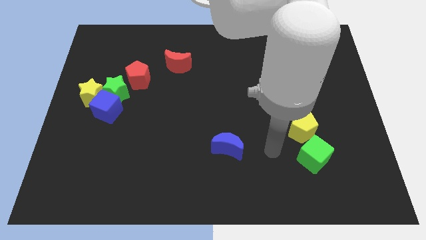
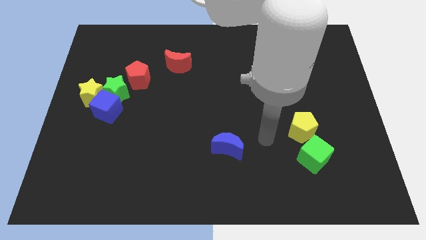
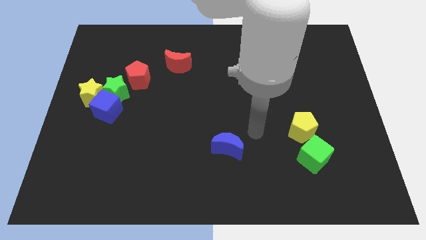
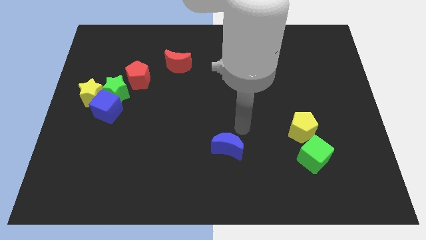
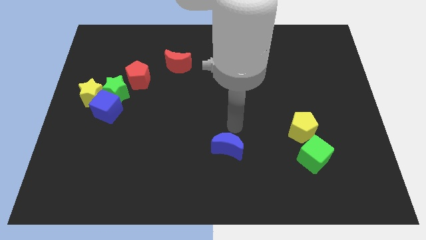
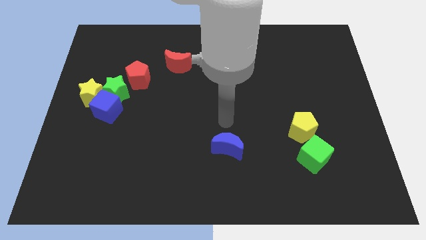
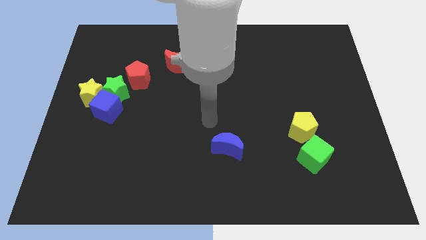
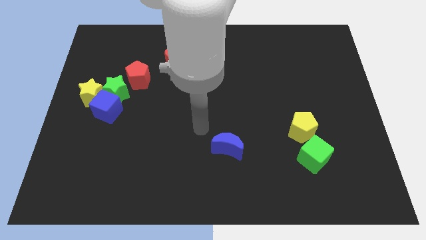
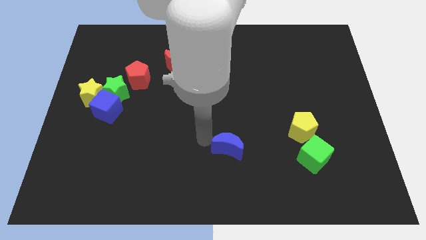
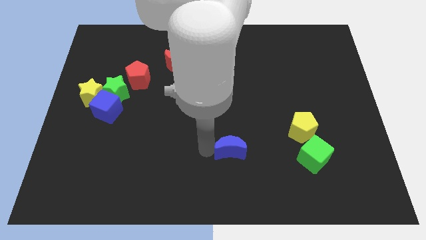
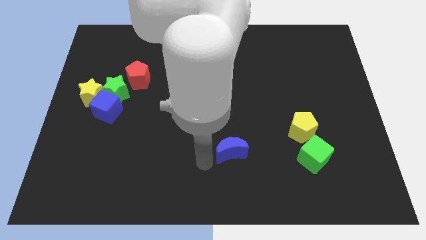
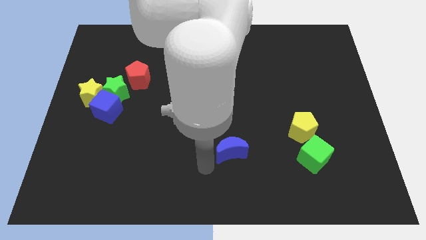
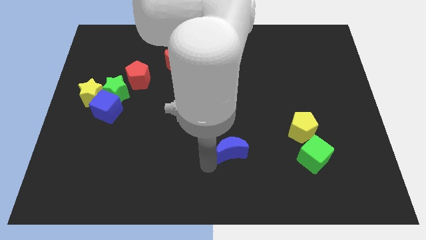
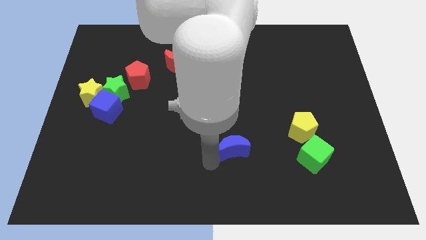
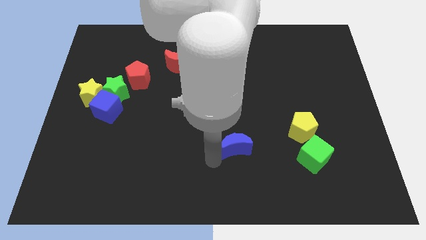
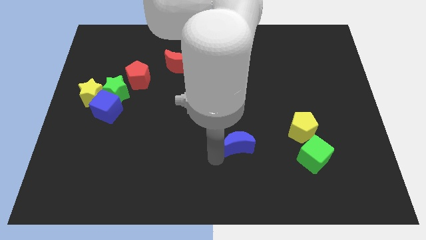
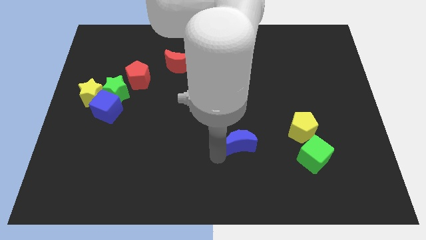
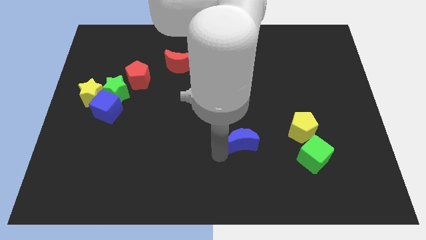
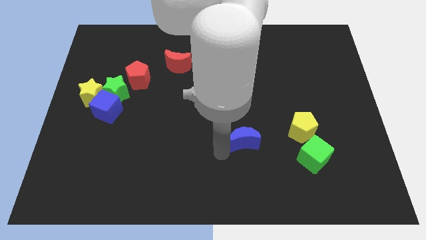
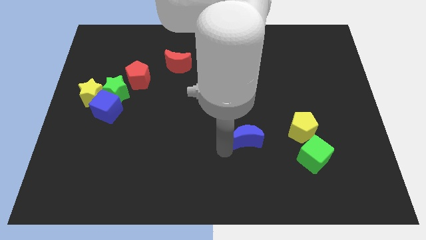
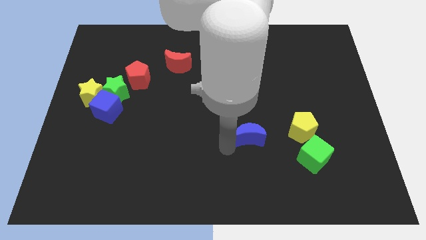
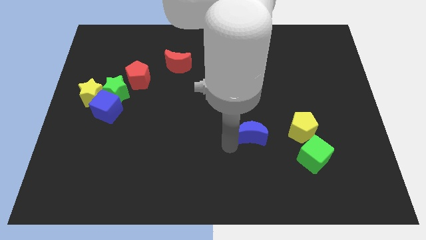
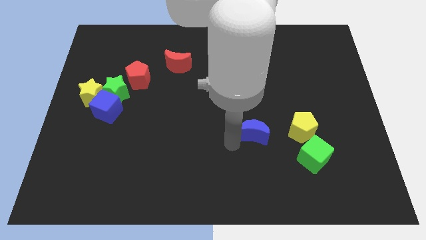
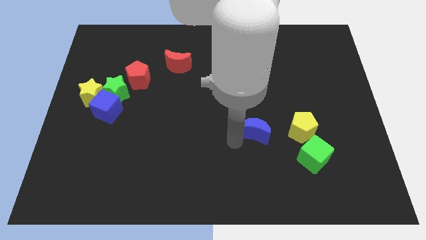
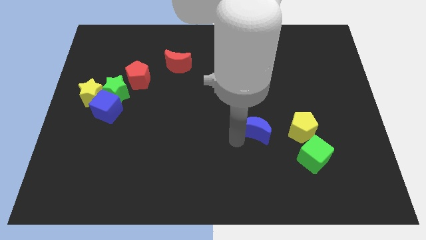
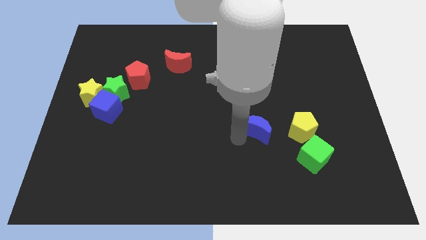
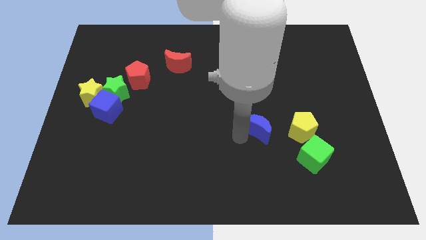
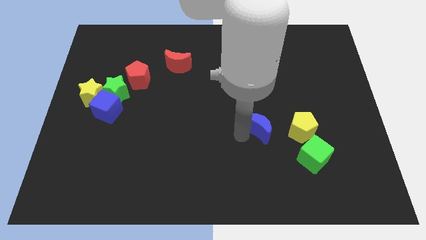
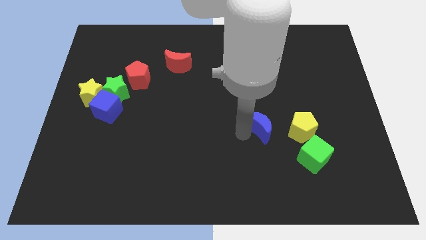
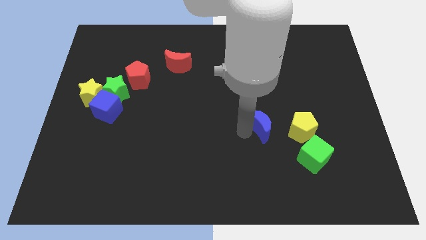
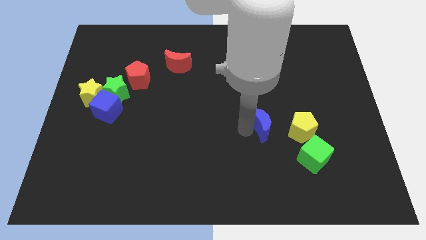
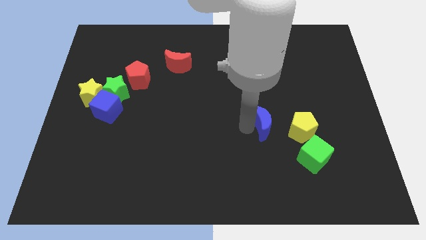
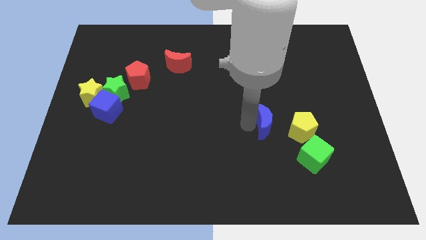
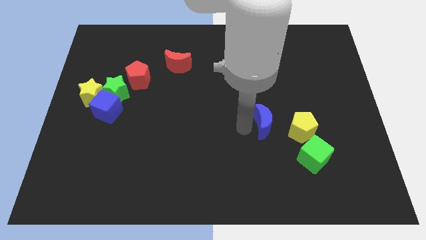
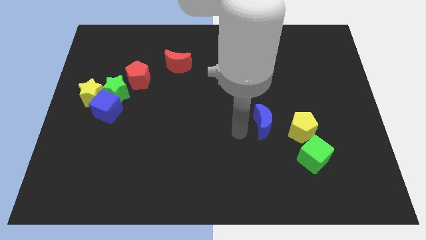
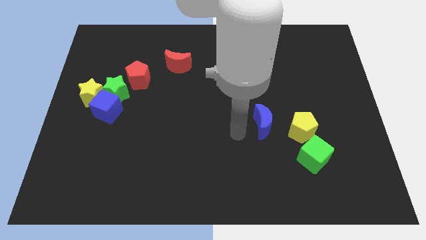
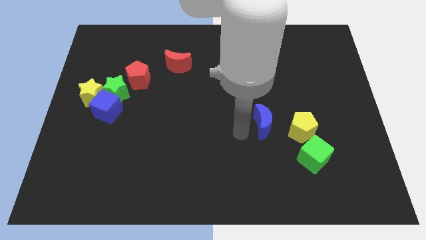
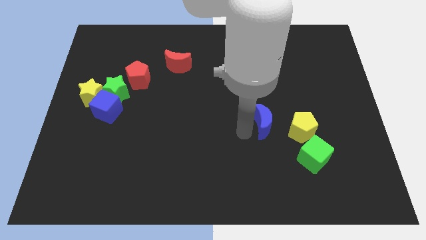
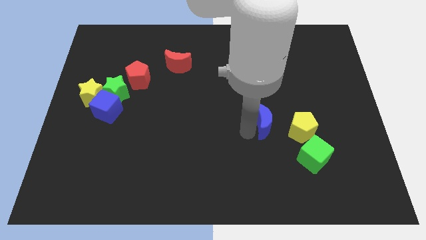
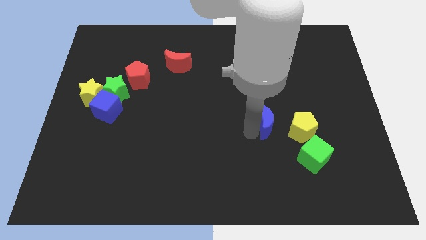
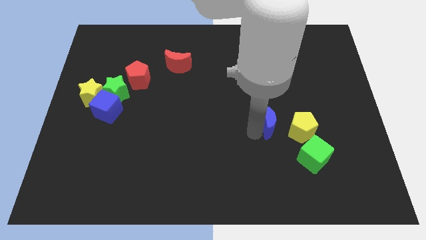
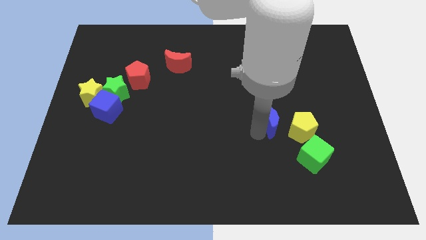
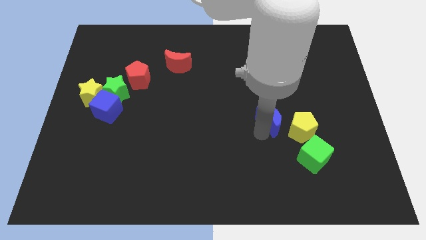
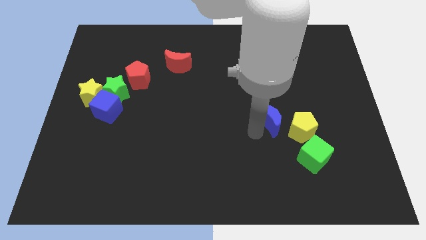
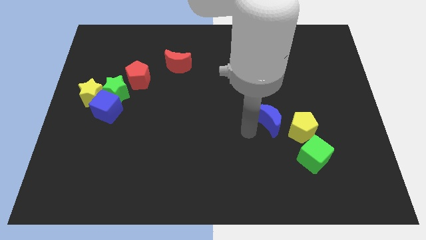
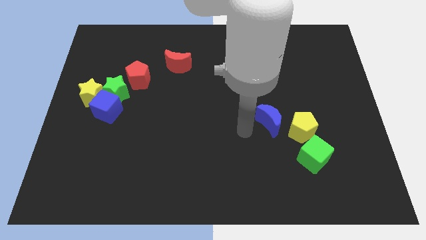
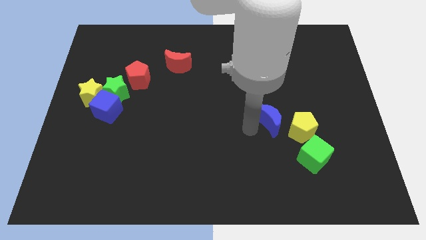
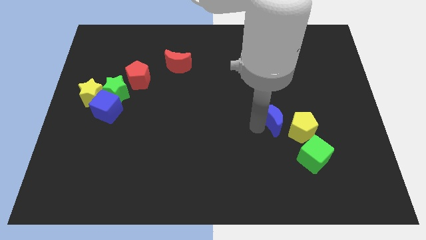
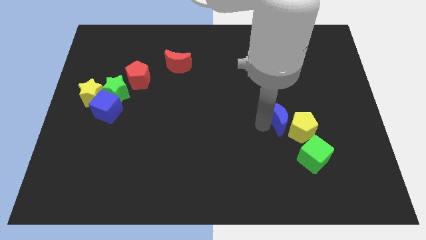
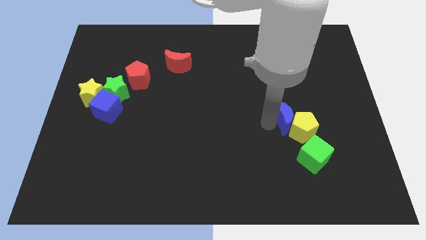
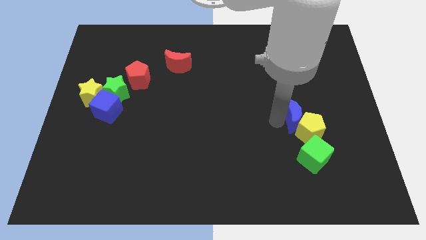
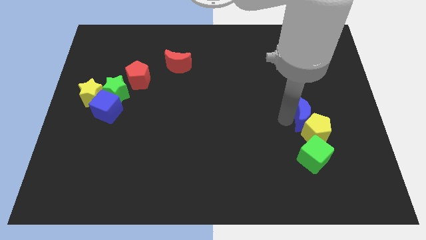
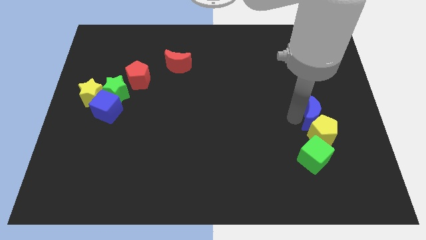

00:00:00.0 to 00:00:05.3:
move the blue moon to the top right of the yellow pentagon

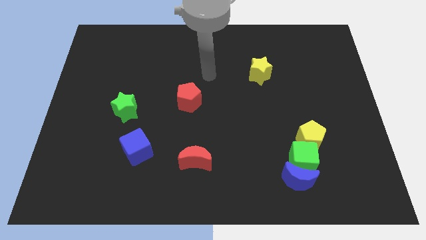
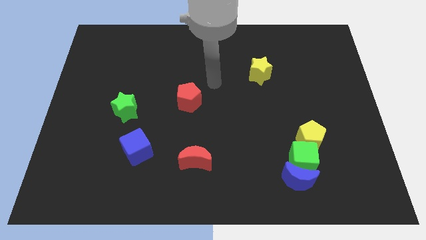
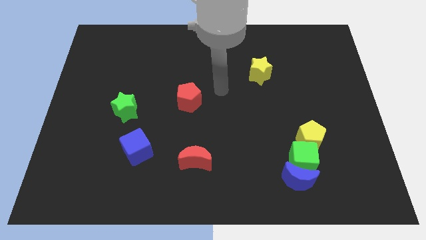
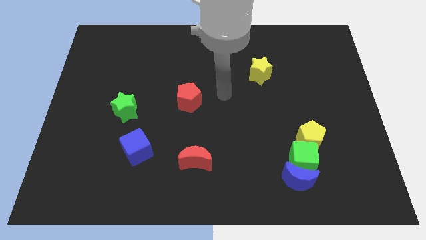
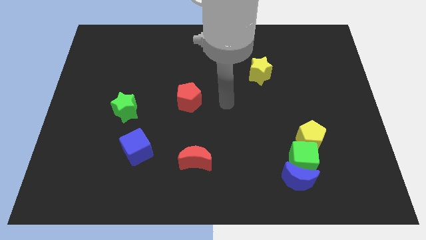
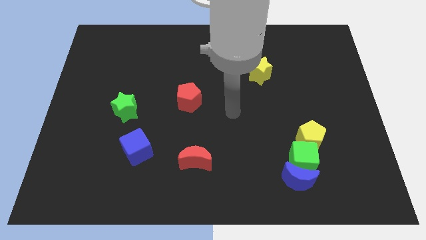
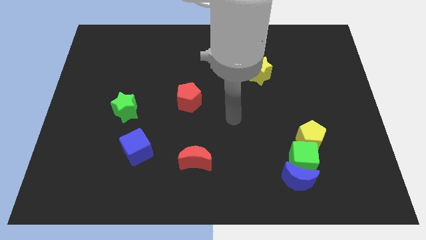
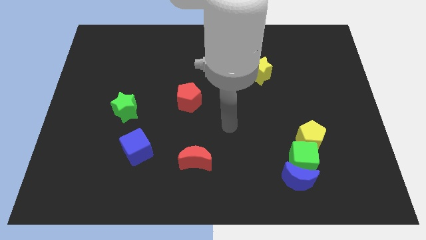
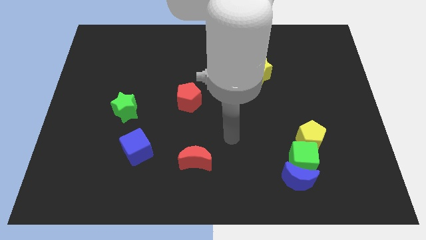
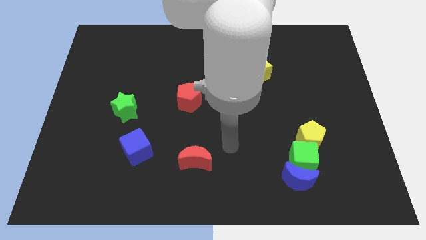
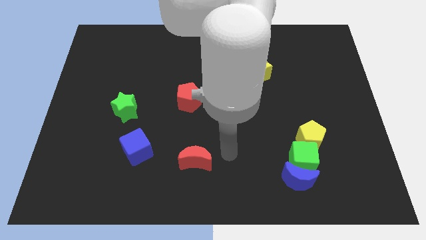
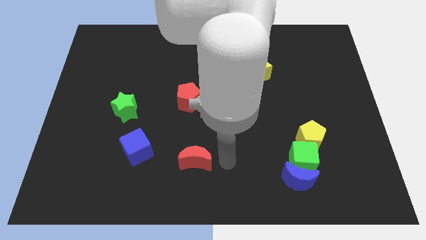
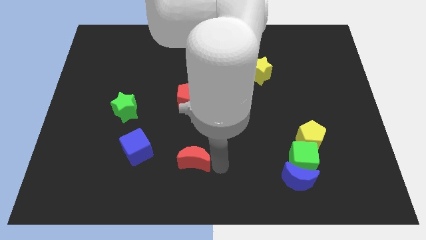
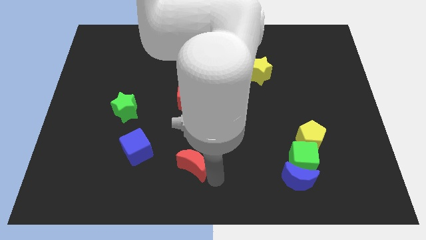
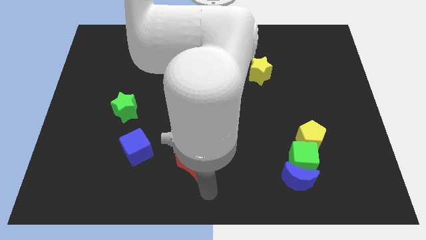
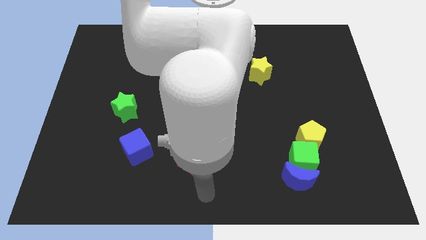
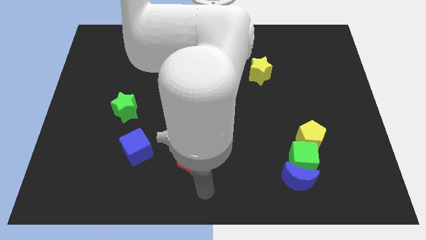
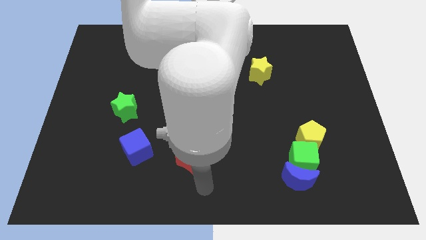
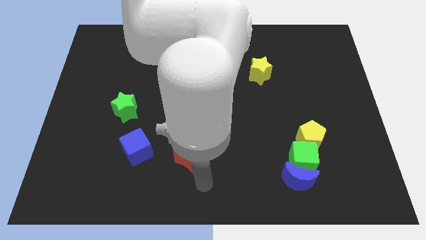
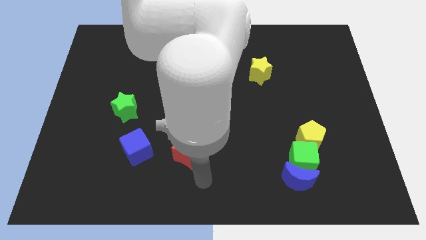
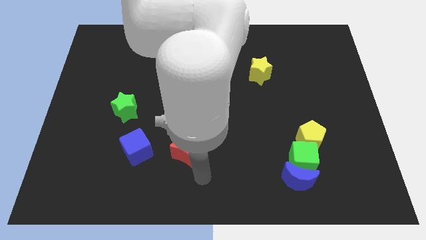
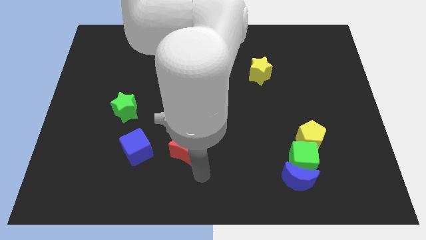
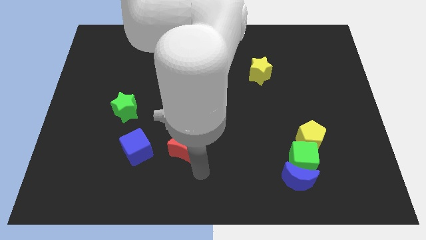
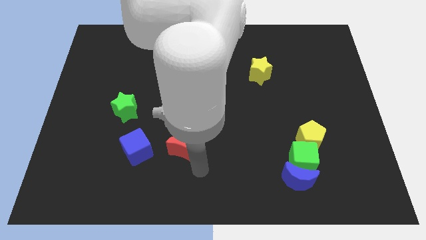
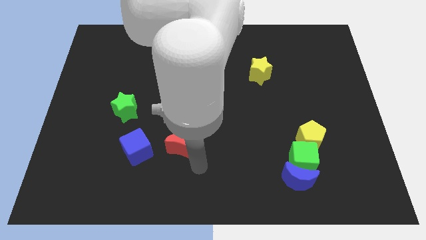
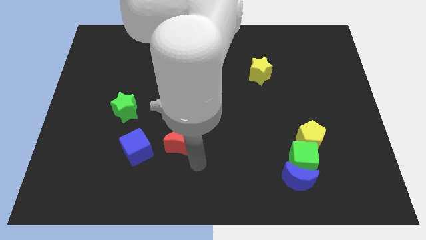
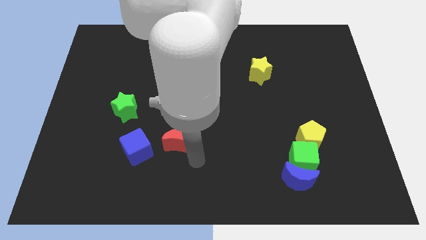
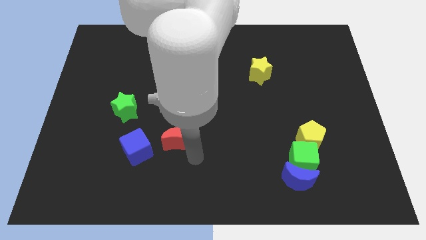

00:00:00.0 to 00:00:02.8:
push the red moon diagonally up and to the right of the blue cube
